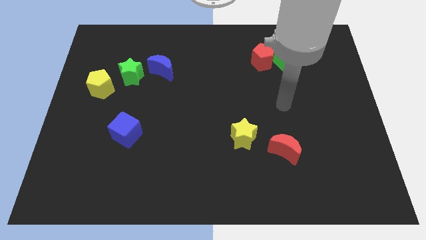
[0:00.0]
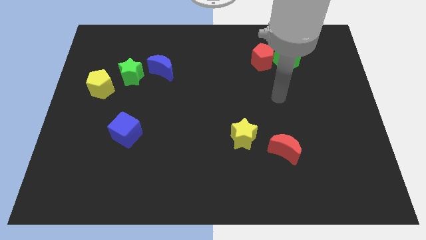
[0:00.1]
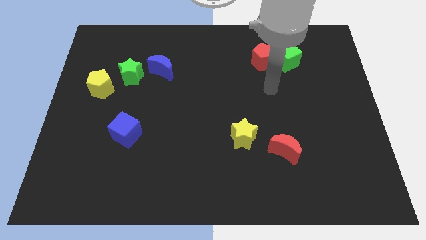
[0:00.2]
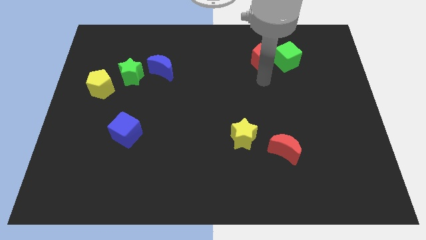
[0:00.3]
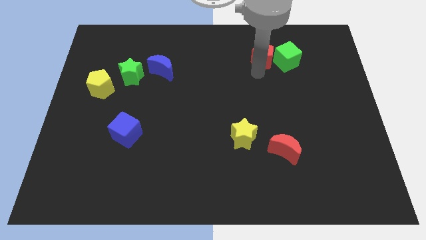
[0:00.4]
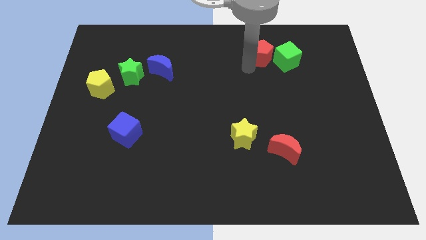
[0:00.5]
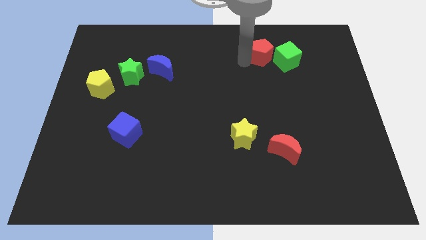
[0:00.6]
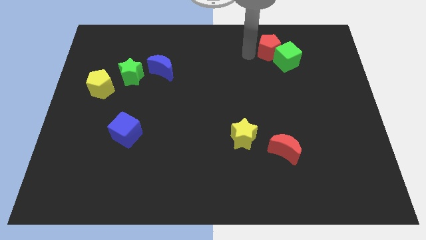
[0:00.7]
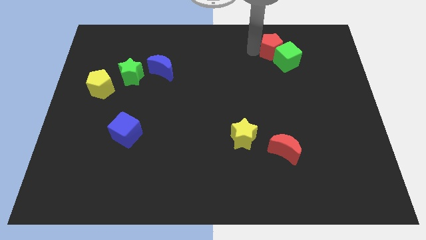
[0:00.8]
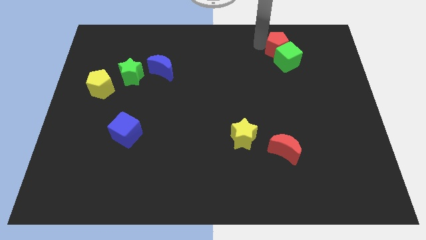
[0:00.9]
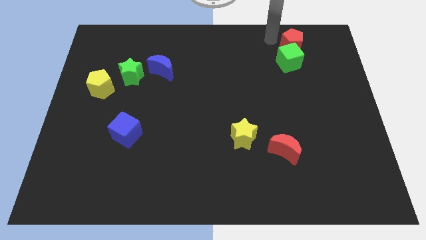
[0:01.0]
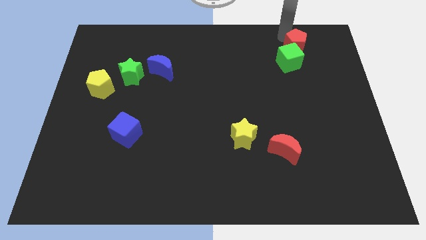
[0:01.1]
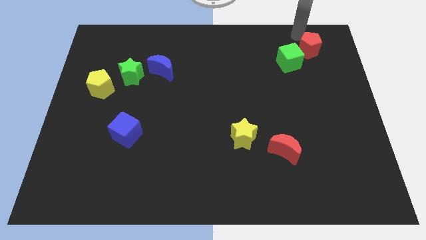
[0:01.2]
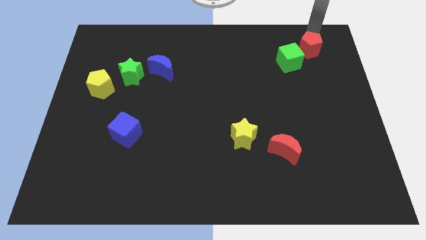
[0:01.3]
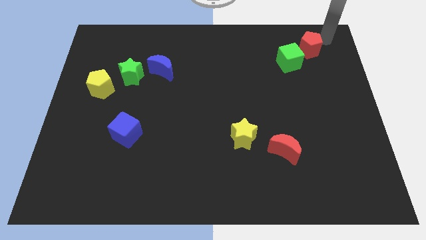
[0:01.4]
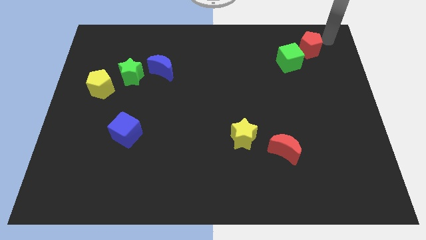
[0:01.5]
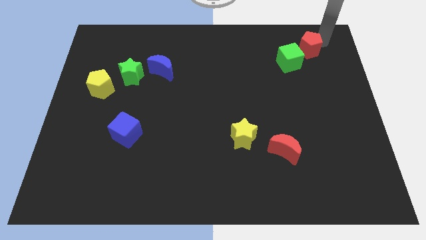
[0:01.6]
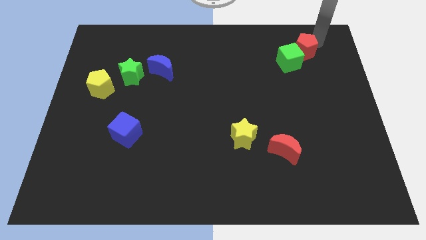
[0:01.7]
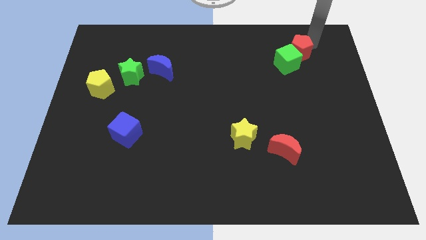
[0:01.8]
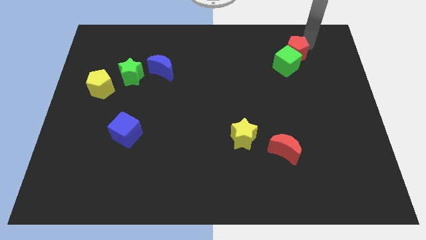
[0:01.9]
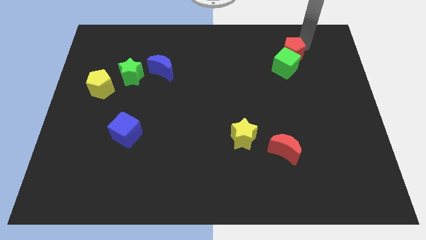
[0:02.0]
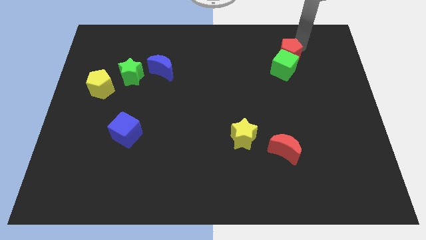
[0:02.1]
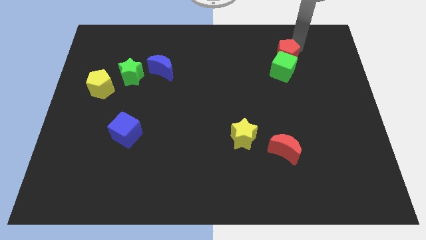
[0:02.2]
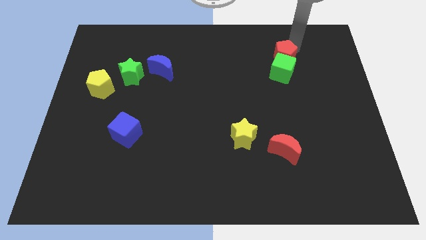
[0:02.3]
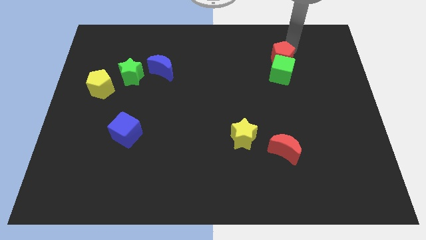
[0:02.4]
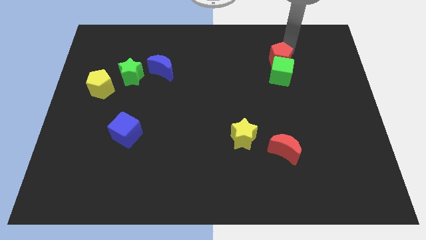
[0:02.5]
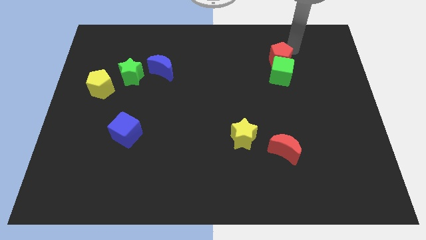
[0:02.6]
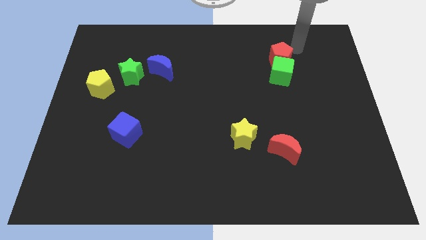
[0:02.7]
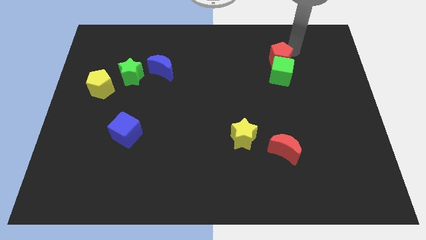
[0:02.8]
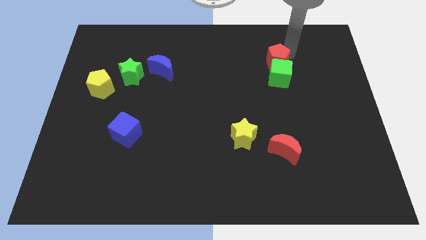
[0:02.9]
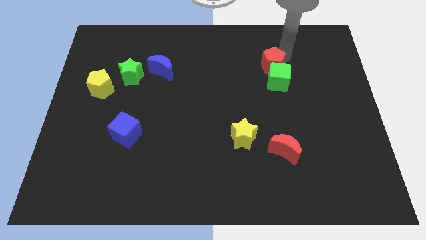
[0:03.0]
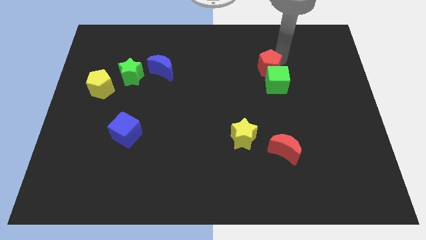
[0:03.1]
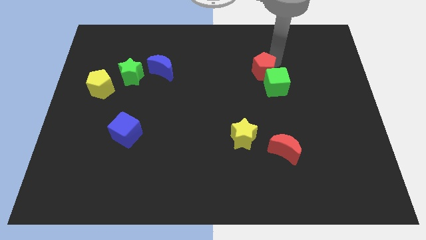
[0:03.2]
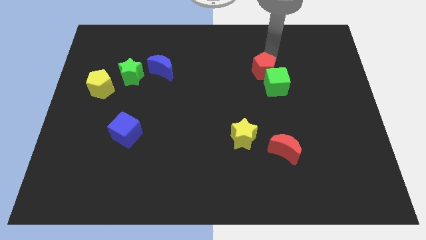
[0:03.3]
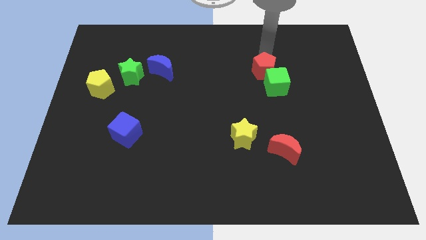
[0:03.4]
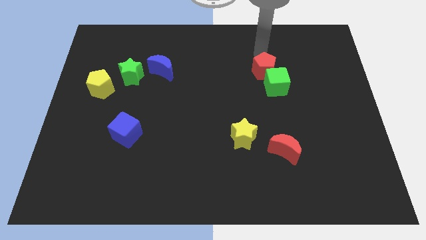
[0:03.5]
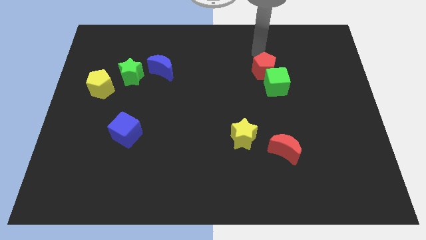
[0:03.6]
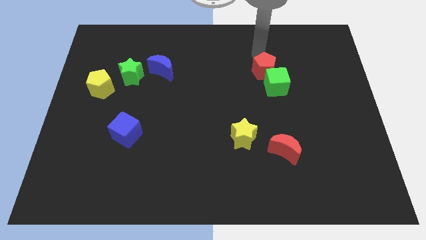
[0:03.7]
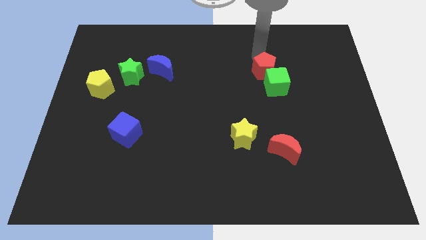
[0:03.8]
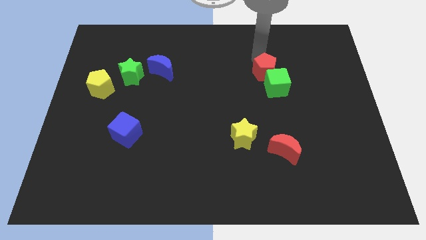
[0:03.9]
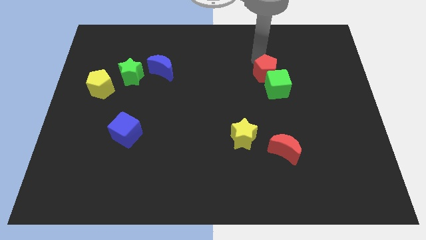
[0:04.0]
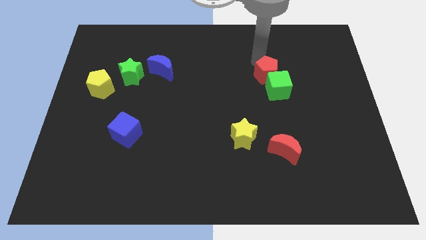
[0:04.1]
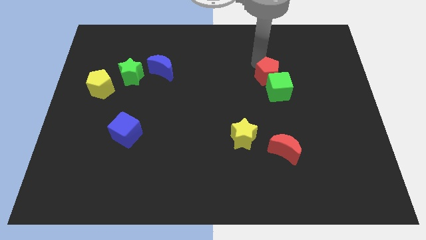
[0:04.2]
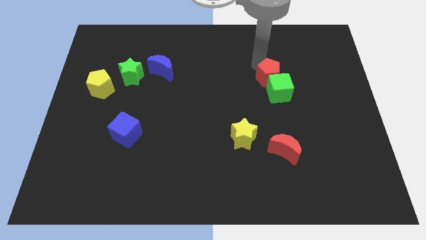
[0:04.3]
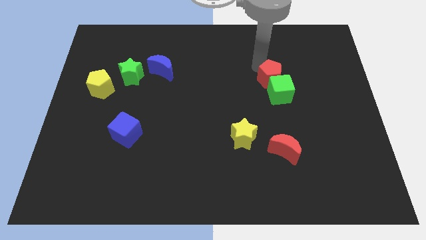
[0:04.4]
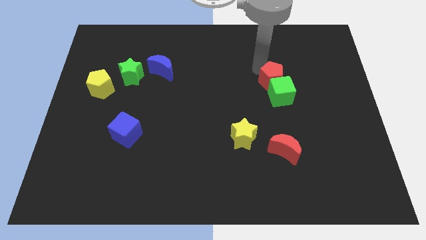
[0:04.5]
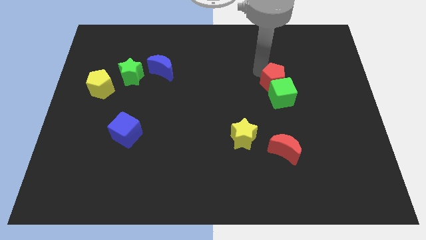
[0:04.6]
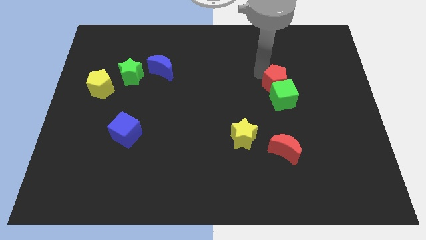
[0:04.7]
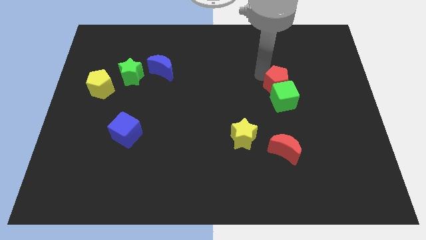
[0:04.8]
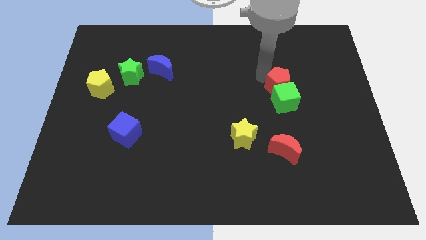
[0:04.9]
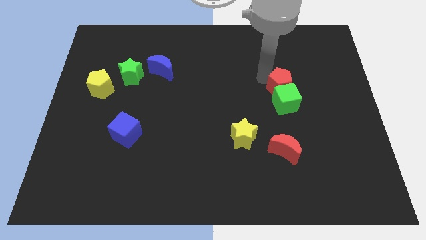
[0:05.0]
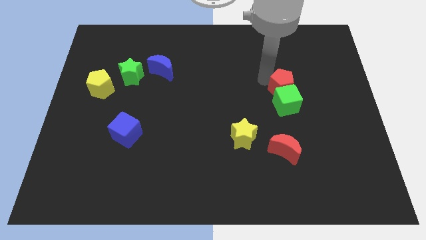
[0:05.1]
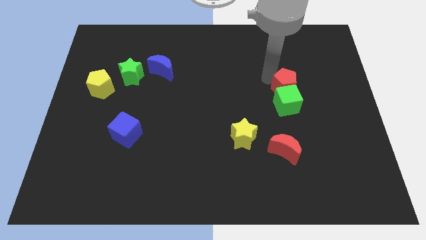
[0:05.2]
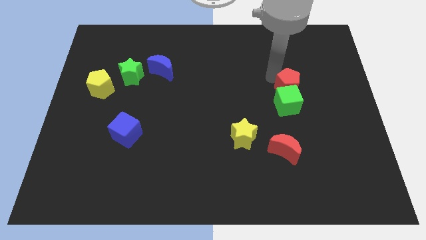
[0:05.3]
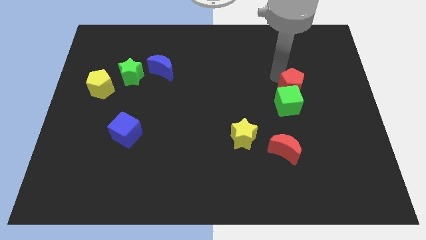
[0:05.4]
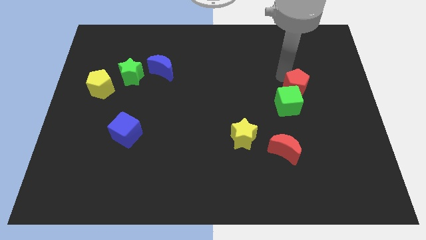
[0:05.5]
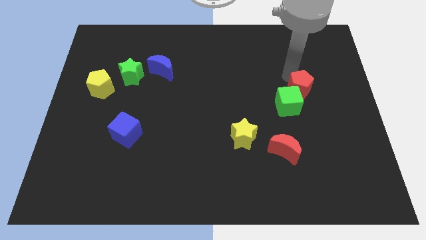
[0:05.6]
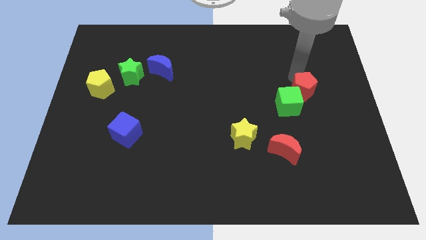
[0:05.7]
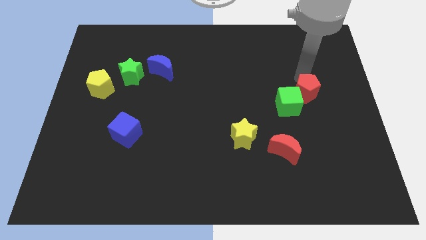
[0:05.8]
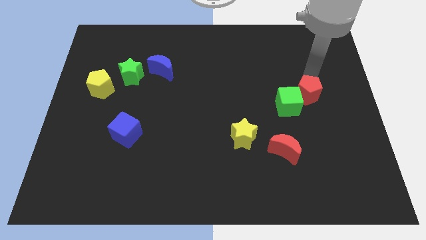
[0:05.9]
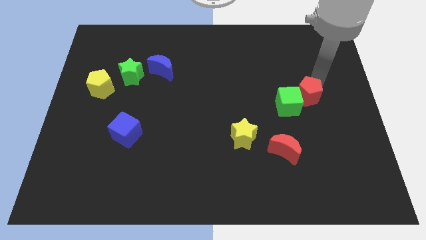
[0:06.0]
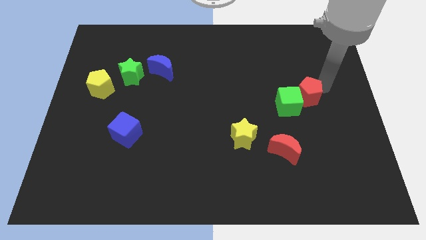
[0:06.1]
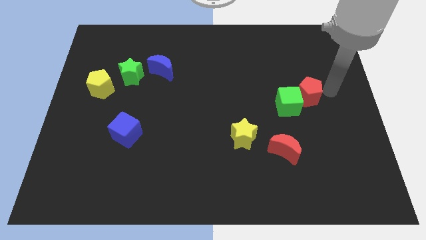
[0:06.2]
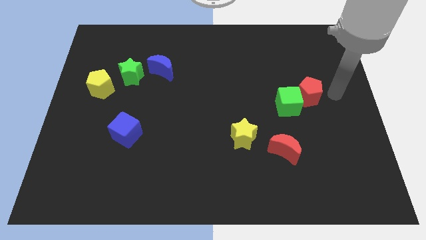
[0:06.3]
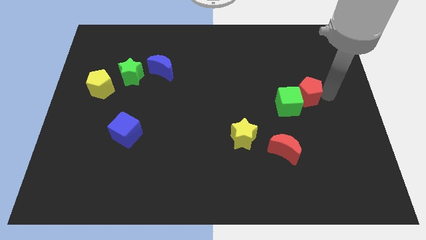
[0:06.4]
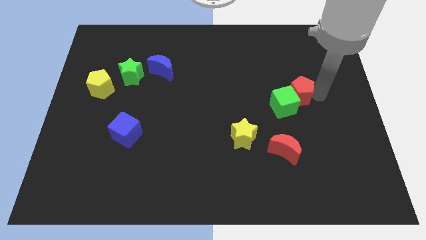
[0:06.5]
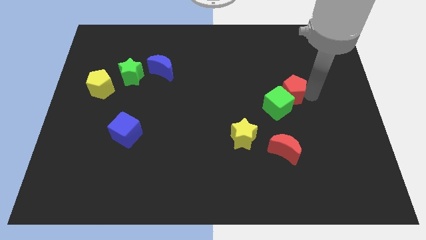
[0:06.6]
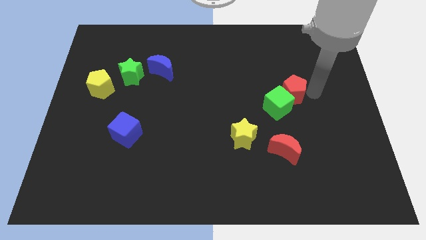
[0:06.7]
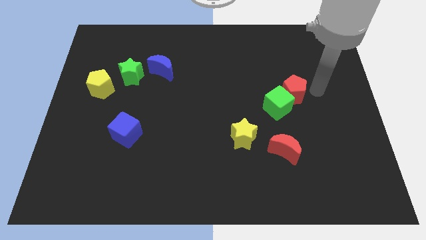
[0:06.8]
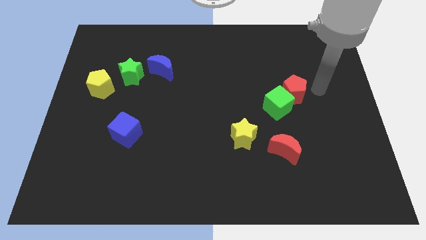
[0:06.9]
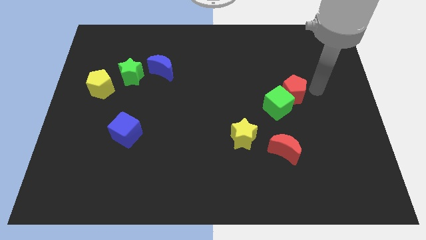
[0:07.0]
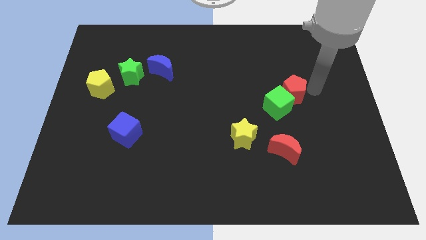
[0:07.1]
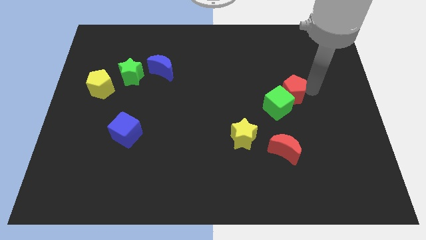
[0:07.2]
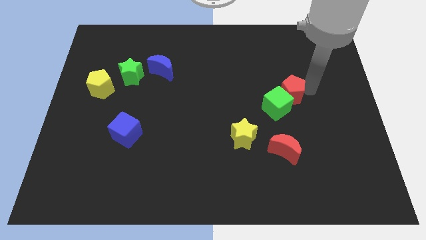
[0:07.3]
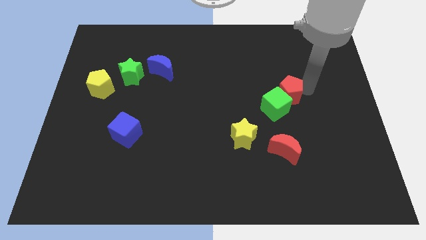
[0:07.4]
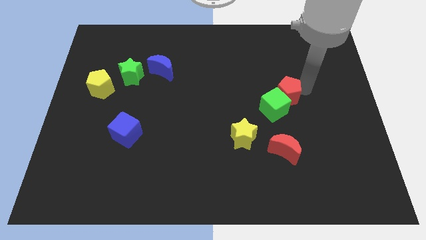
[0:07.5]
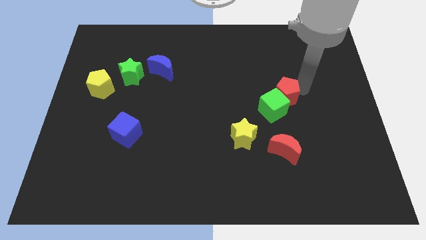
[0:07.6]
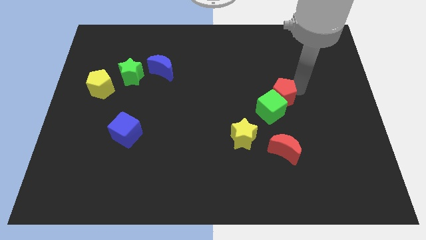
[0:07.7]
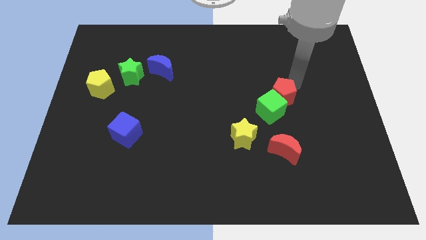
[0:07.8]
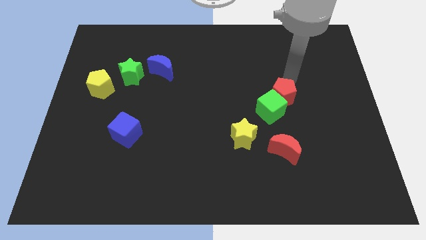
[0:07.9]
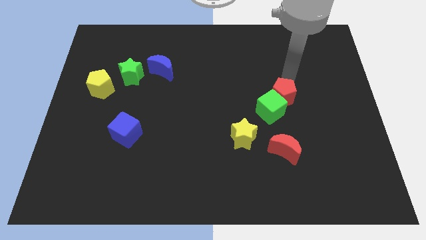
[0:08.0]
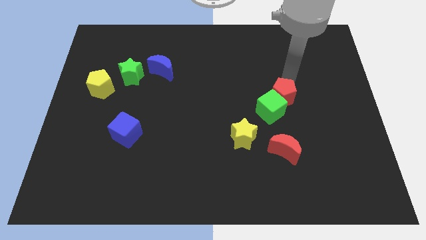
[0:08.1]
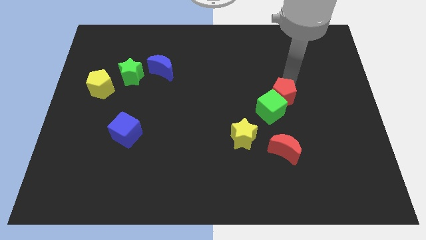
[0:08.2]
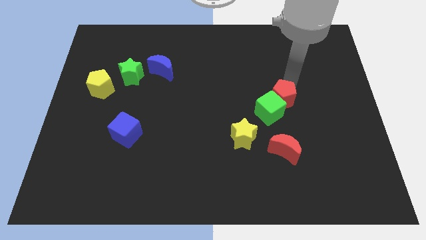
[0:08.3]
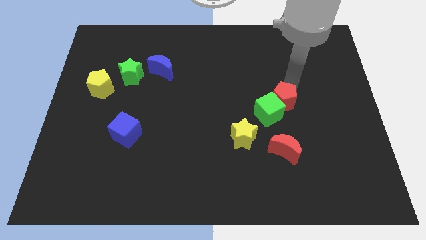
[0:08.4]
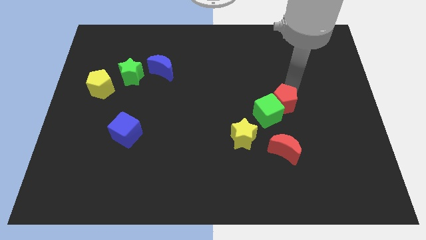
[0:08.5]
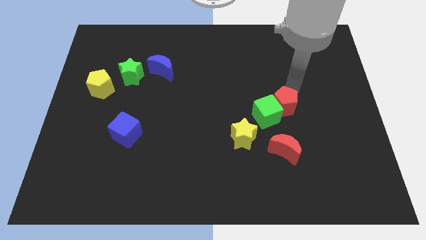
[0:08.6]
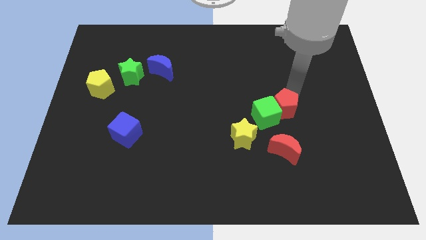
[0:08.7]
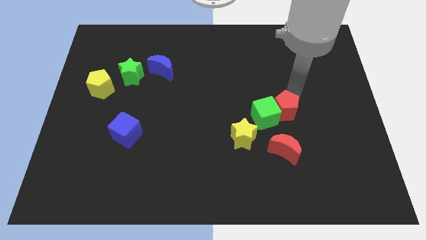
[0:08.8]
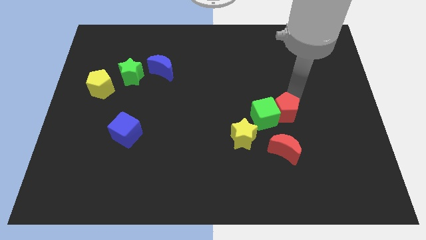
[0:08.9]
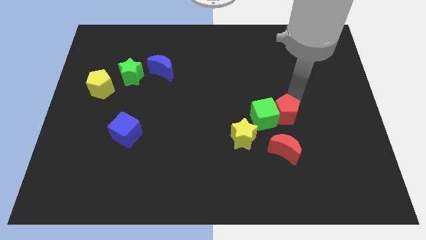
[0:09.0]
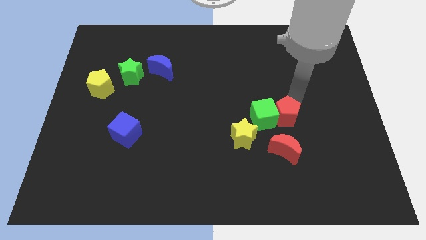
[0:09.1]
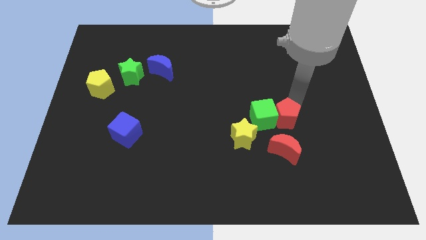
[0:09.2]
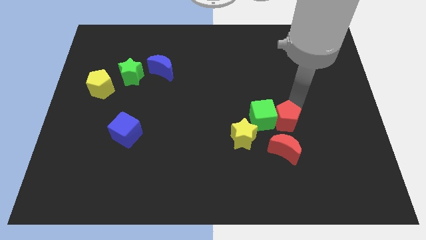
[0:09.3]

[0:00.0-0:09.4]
move the red pentagon to the right side of the yellow star
